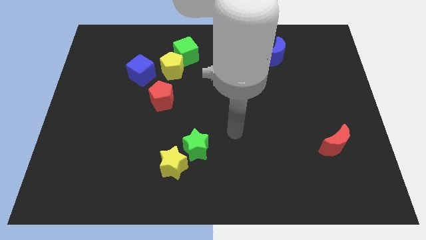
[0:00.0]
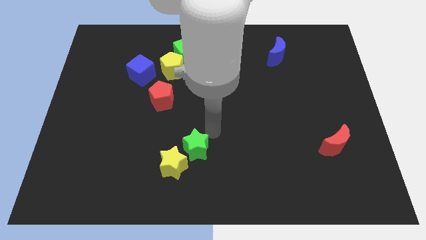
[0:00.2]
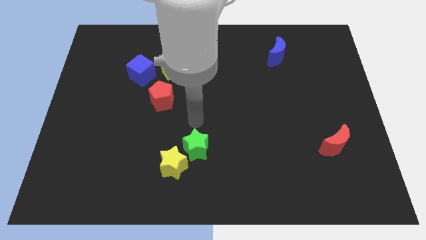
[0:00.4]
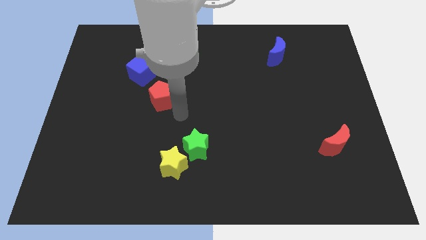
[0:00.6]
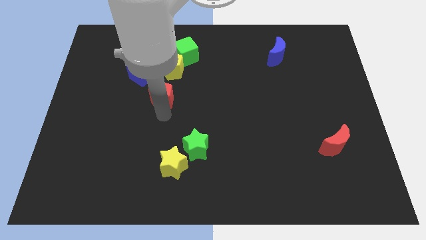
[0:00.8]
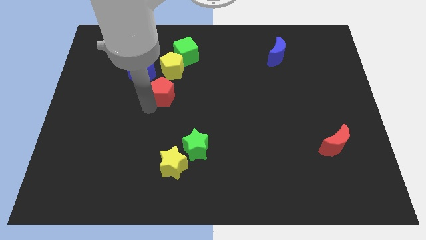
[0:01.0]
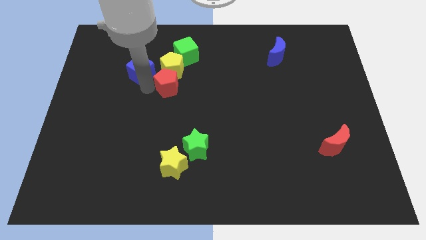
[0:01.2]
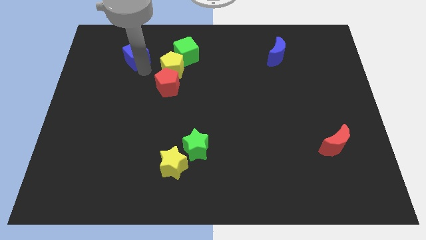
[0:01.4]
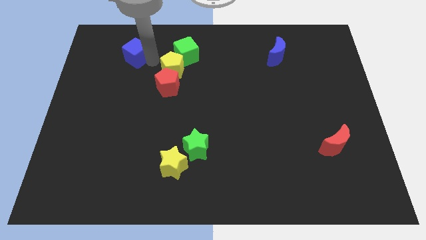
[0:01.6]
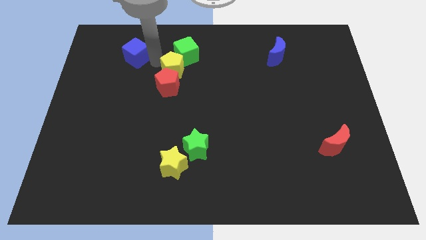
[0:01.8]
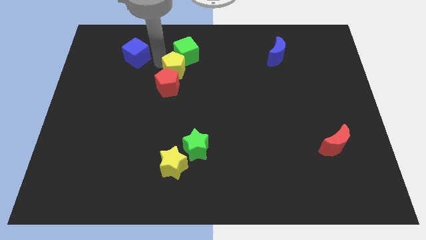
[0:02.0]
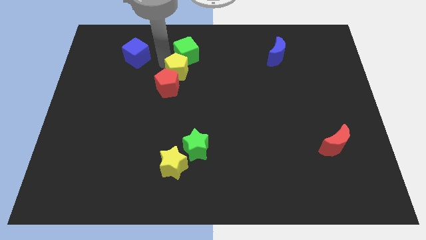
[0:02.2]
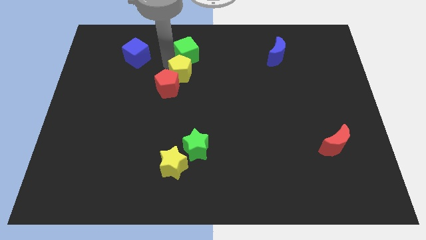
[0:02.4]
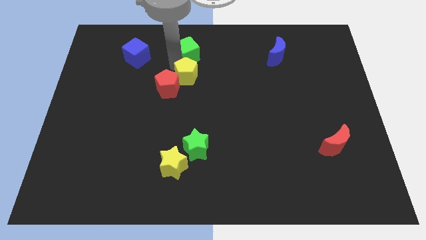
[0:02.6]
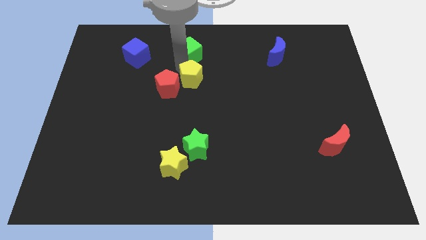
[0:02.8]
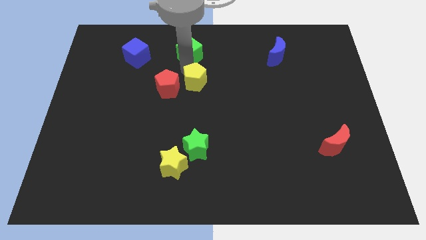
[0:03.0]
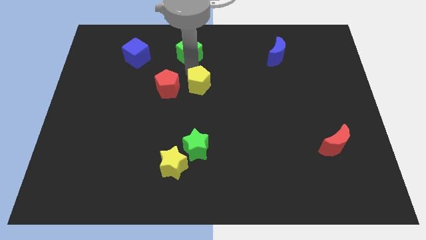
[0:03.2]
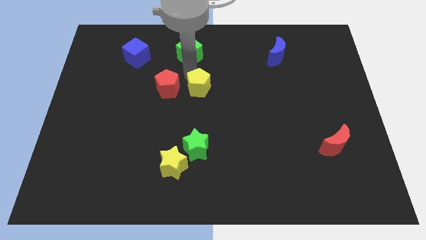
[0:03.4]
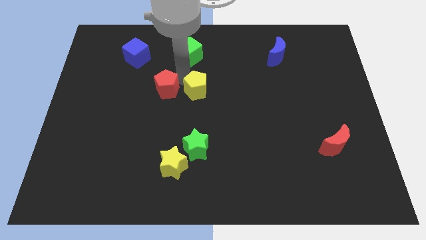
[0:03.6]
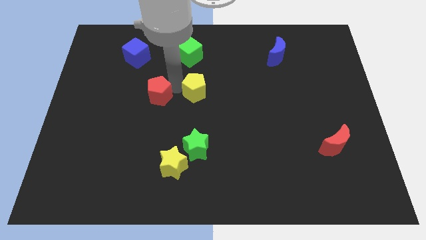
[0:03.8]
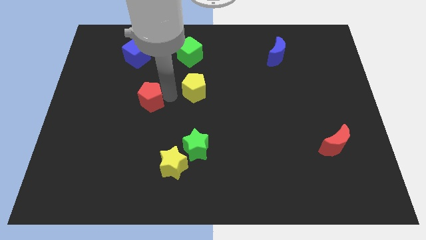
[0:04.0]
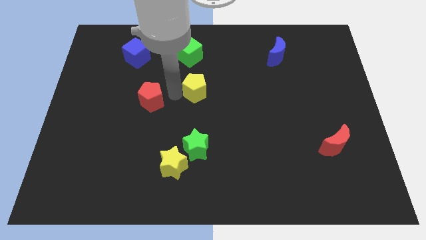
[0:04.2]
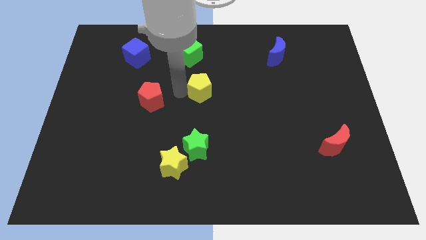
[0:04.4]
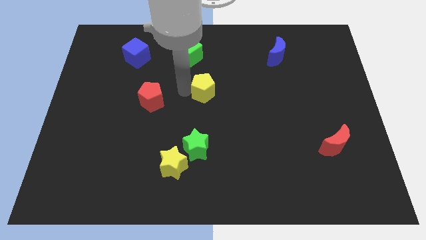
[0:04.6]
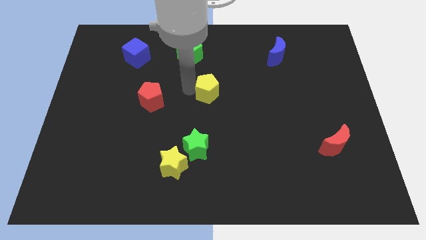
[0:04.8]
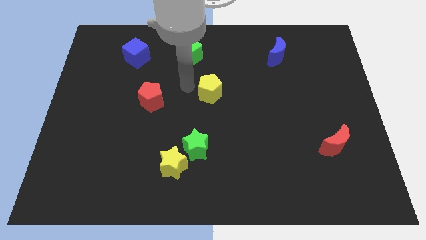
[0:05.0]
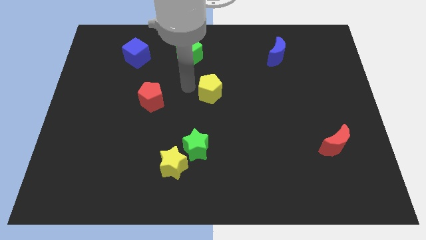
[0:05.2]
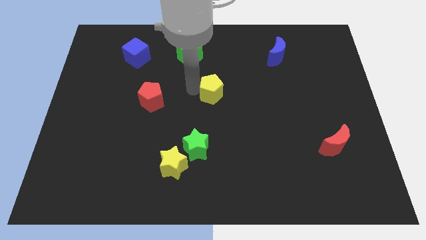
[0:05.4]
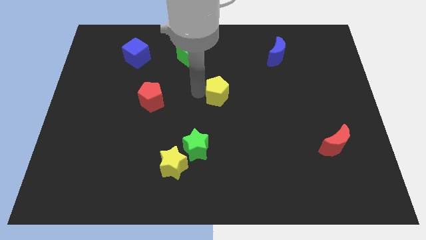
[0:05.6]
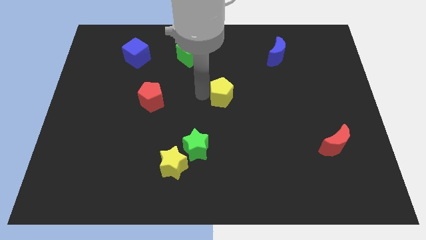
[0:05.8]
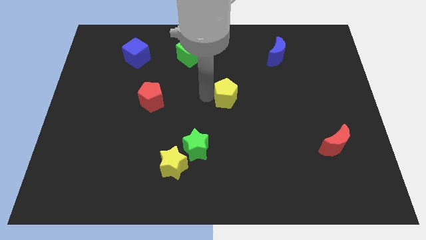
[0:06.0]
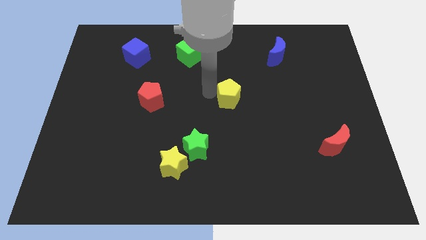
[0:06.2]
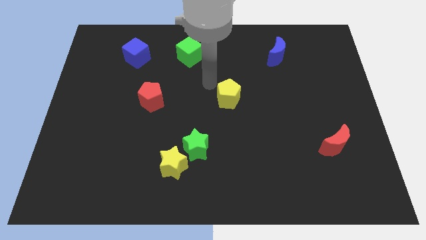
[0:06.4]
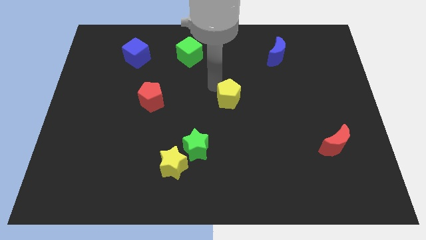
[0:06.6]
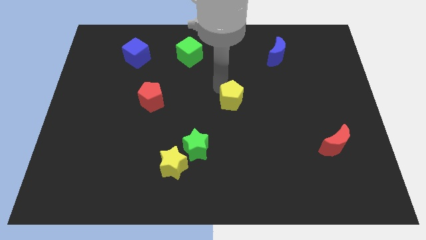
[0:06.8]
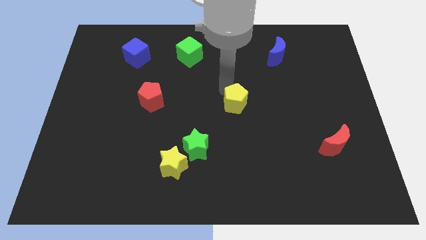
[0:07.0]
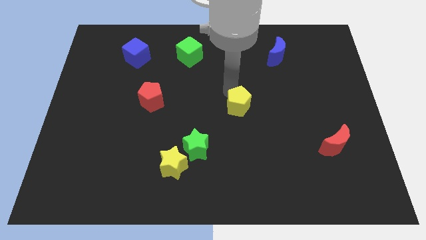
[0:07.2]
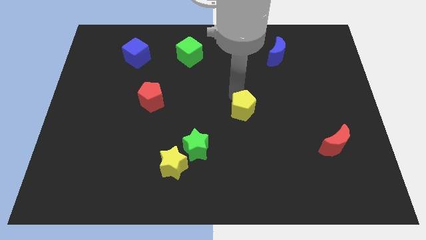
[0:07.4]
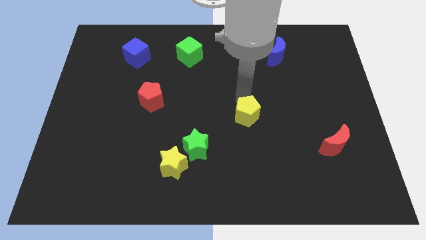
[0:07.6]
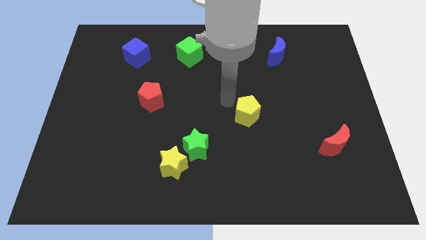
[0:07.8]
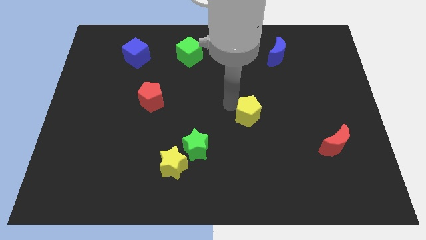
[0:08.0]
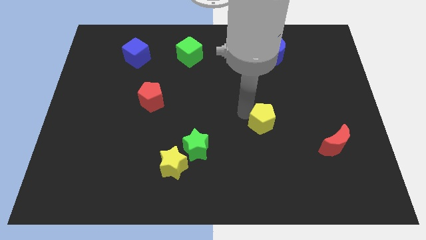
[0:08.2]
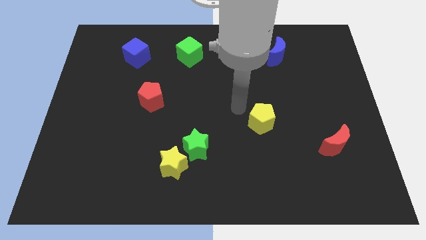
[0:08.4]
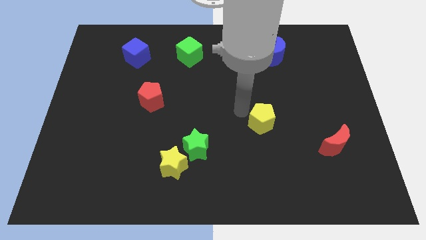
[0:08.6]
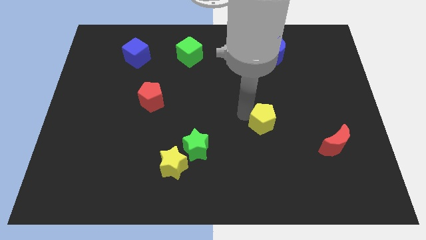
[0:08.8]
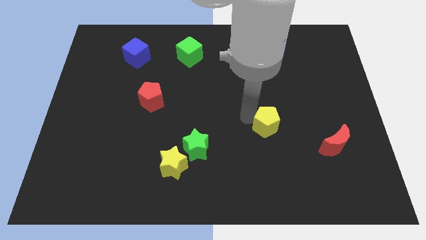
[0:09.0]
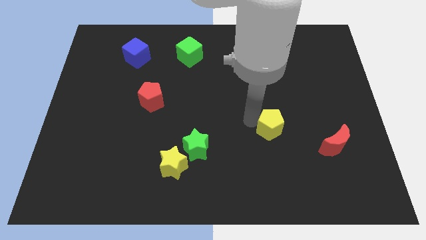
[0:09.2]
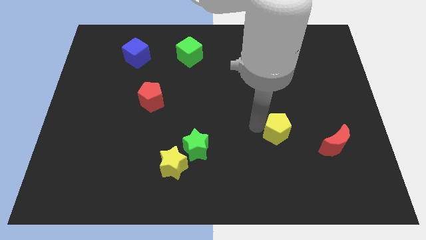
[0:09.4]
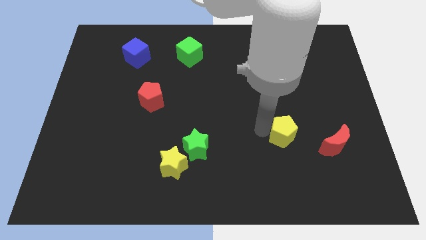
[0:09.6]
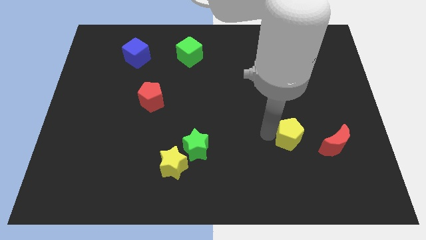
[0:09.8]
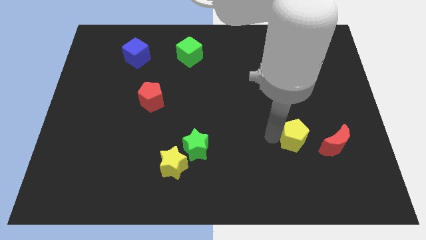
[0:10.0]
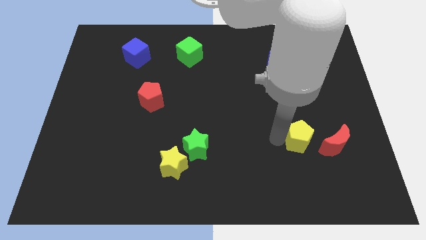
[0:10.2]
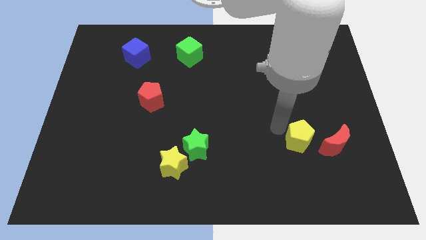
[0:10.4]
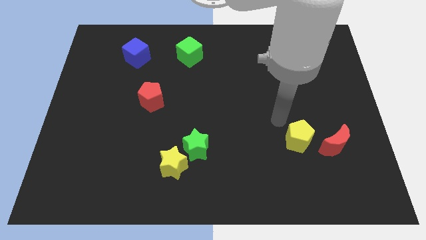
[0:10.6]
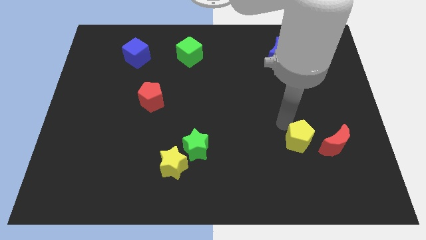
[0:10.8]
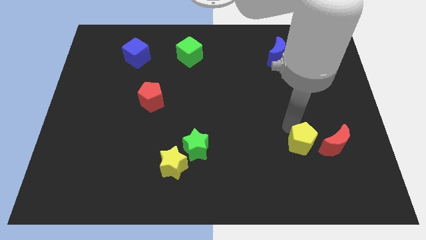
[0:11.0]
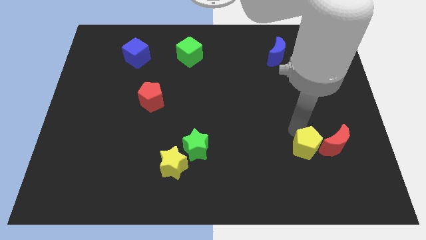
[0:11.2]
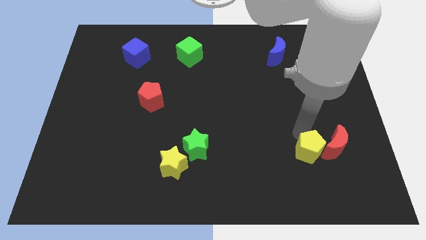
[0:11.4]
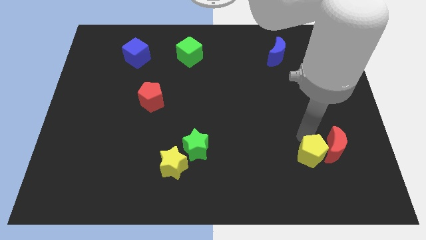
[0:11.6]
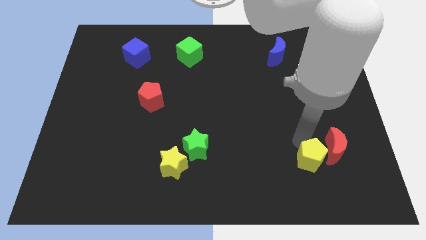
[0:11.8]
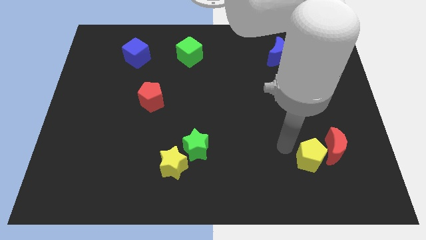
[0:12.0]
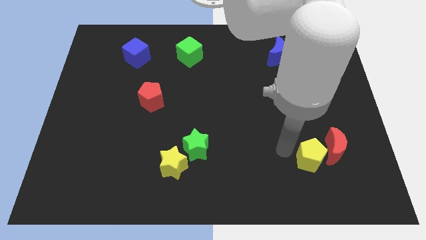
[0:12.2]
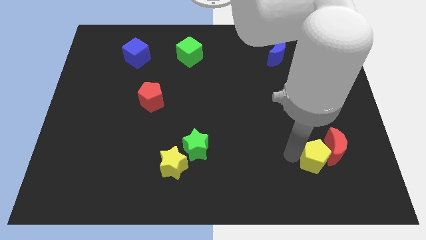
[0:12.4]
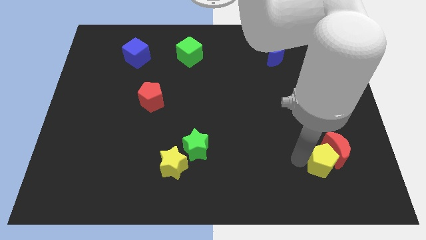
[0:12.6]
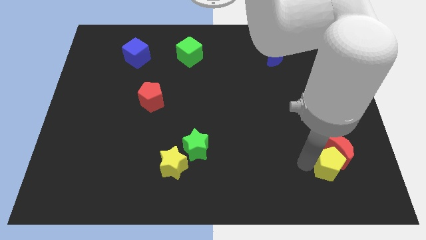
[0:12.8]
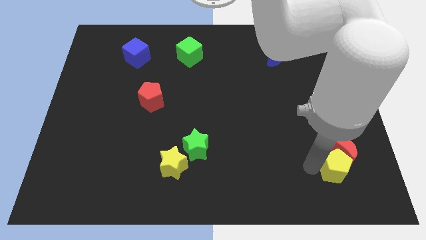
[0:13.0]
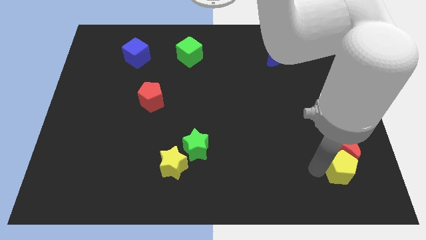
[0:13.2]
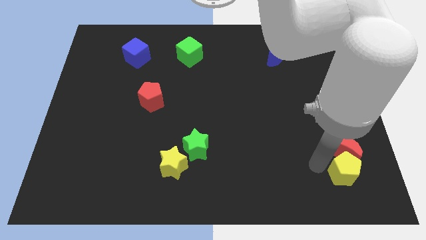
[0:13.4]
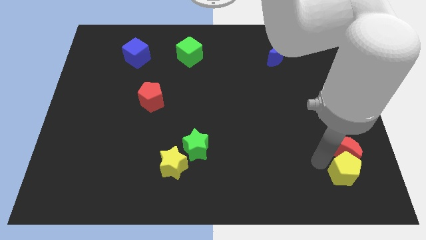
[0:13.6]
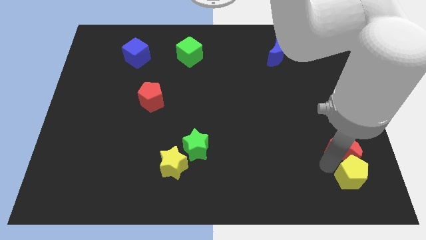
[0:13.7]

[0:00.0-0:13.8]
push the yellow pentagon to the bottom right
